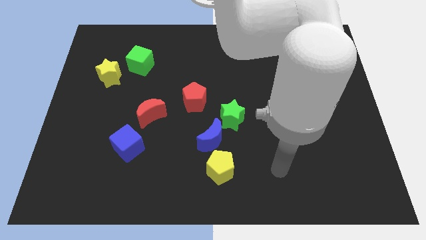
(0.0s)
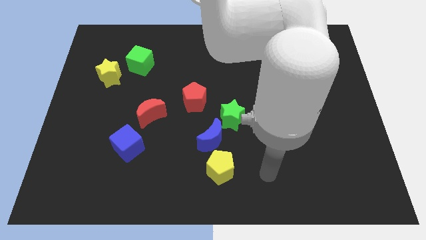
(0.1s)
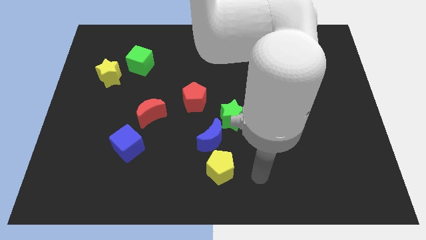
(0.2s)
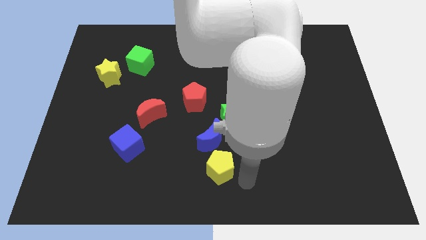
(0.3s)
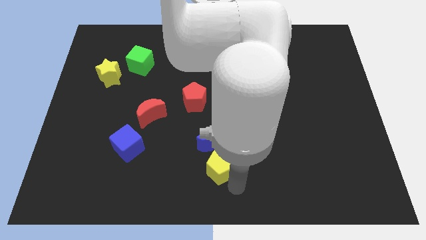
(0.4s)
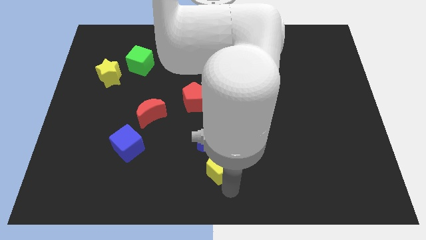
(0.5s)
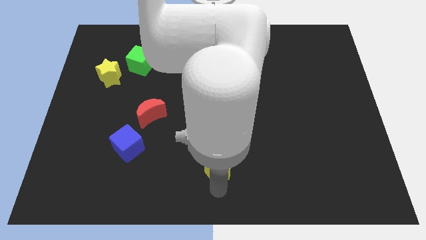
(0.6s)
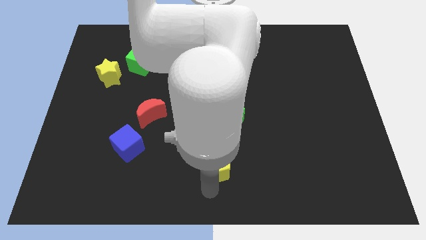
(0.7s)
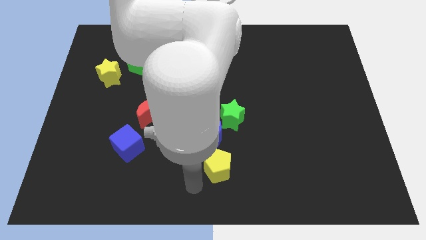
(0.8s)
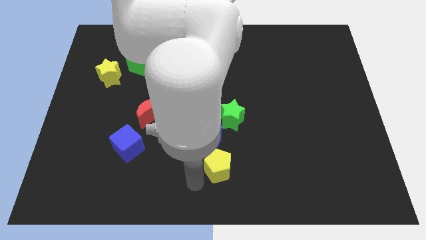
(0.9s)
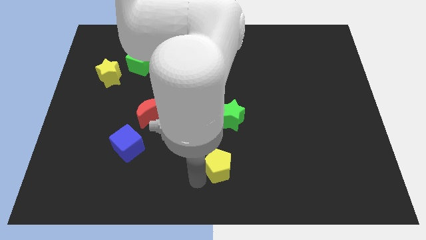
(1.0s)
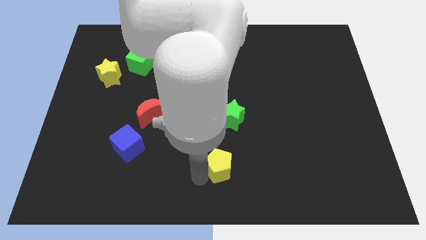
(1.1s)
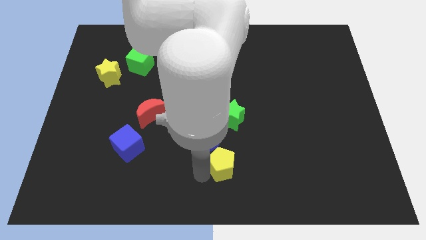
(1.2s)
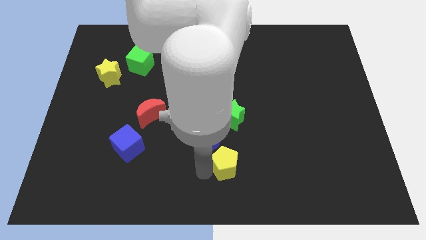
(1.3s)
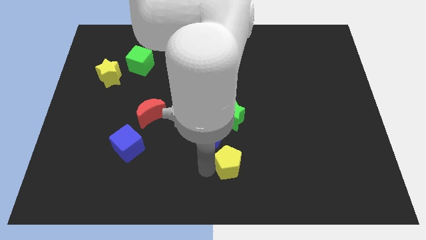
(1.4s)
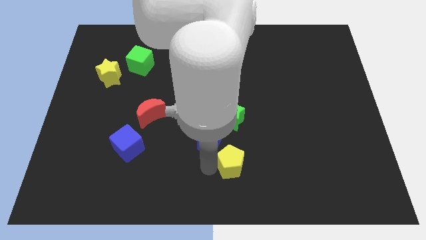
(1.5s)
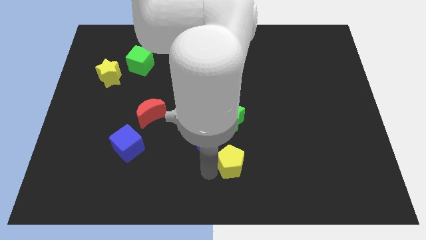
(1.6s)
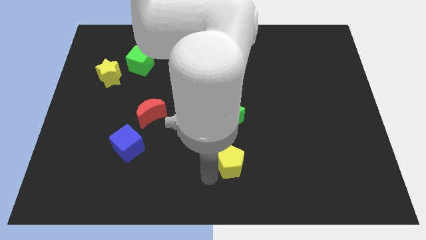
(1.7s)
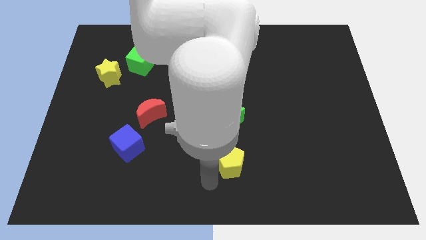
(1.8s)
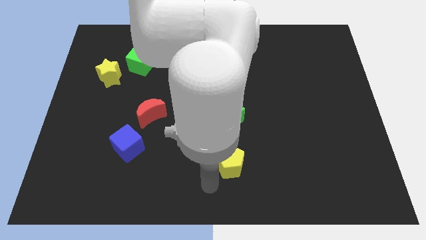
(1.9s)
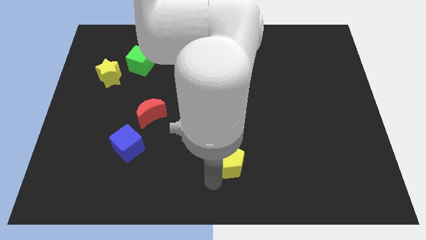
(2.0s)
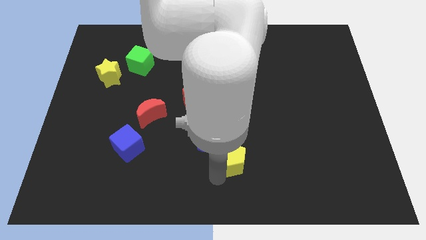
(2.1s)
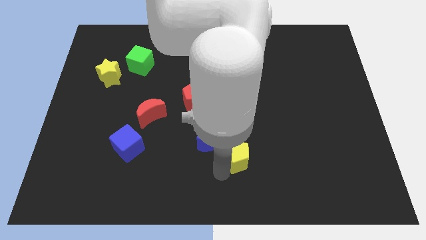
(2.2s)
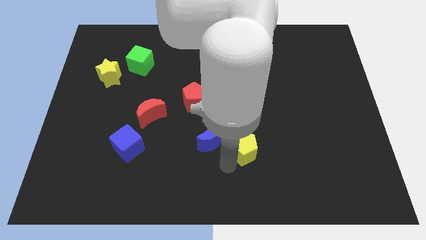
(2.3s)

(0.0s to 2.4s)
slightly move the yellow pentagon diagonally upwards and right

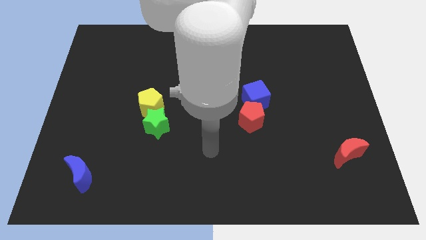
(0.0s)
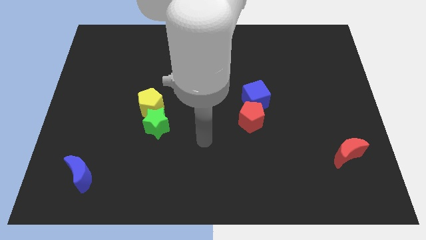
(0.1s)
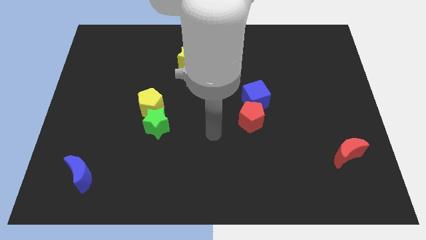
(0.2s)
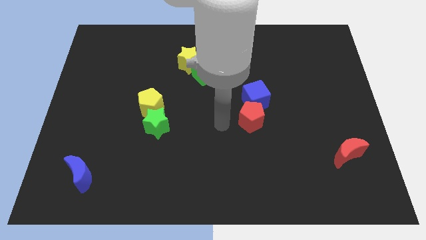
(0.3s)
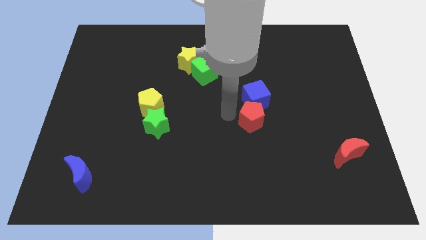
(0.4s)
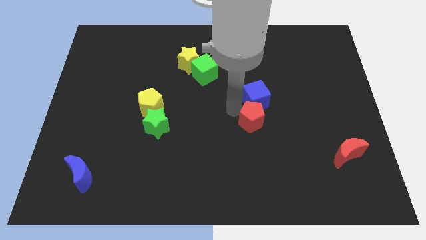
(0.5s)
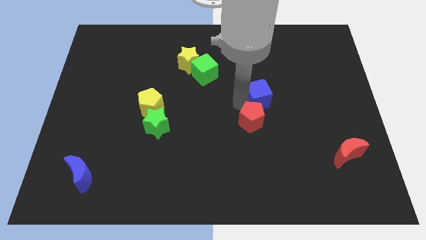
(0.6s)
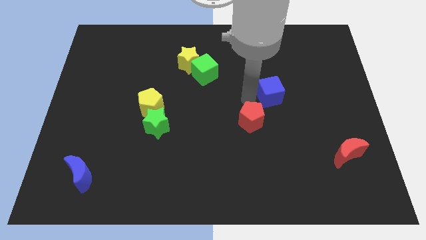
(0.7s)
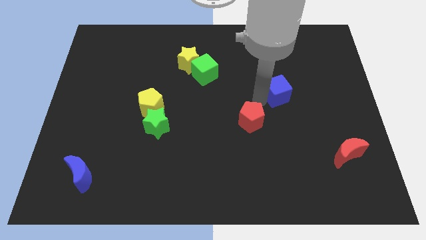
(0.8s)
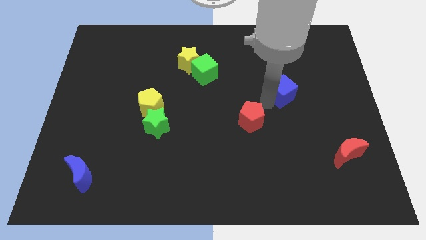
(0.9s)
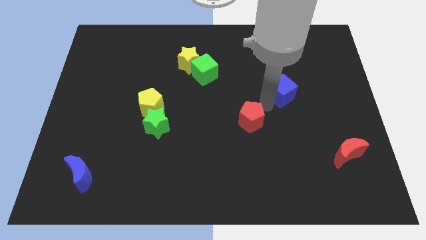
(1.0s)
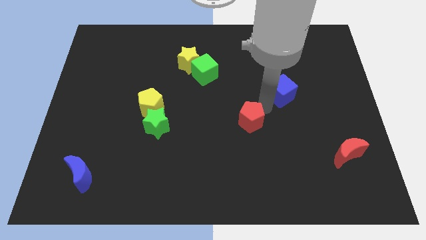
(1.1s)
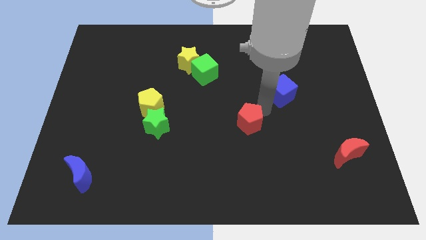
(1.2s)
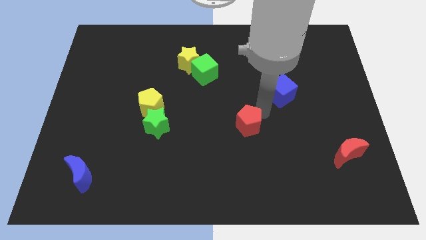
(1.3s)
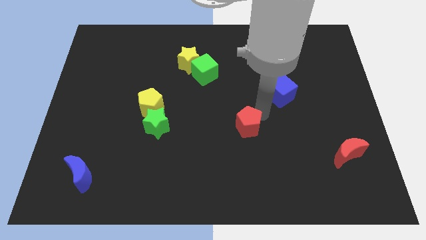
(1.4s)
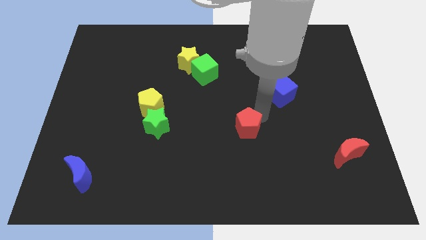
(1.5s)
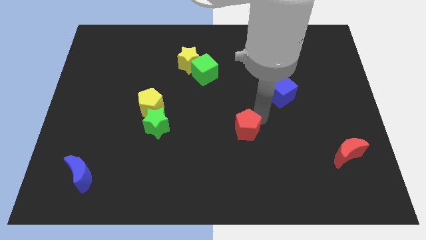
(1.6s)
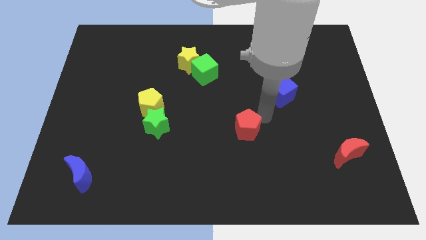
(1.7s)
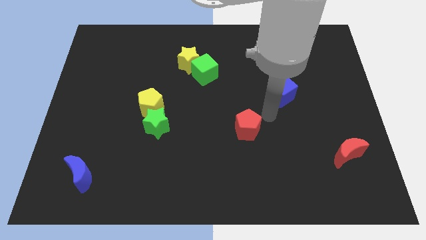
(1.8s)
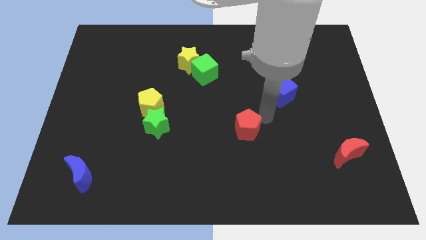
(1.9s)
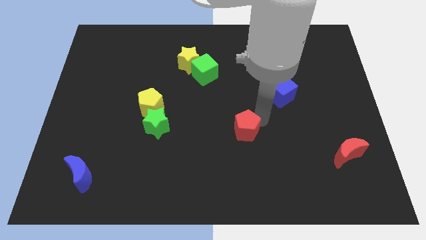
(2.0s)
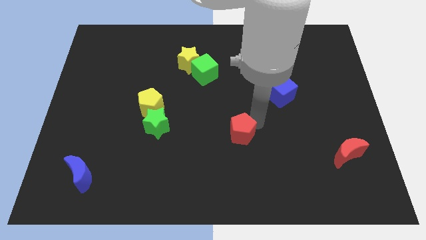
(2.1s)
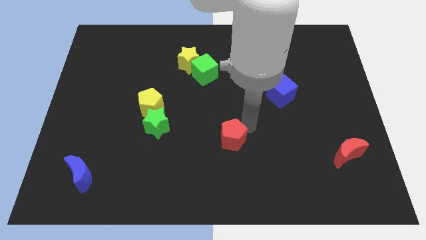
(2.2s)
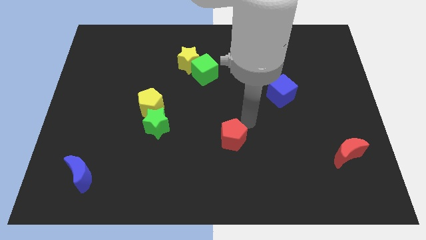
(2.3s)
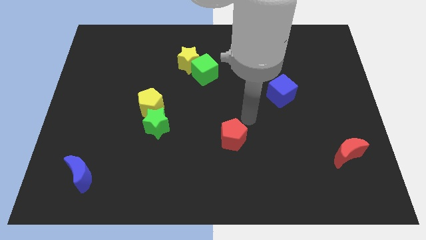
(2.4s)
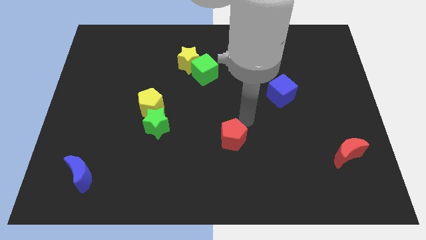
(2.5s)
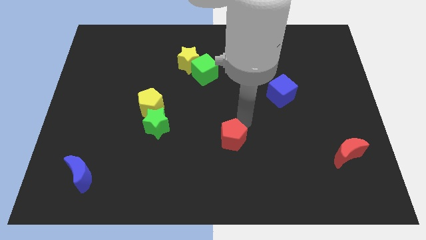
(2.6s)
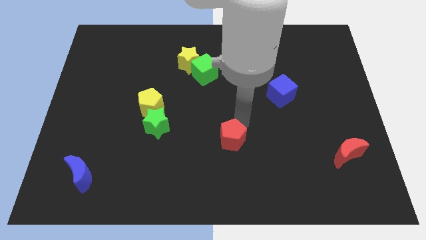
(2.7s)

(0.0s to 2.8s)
slide the red pentagon downwards and left somewhat

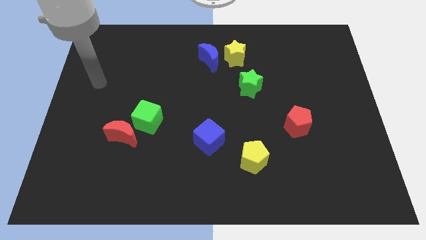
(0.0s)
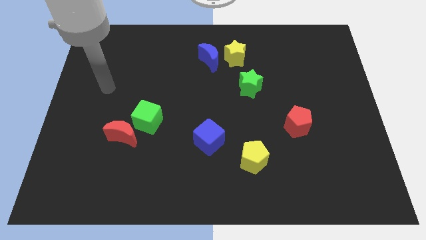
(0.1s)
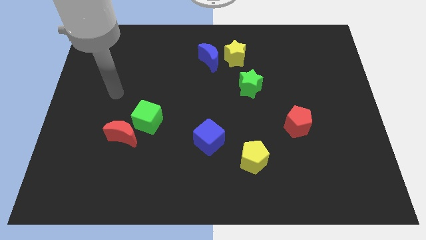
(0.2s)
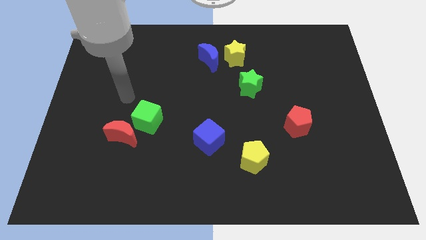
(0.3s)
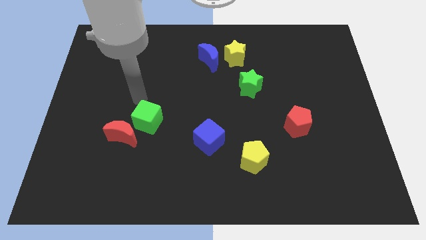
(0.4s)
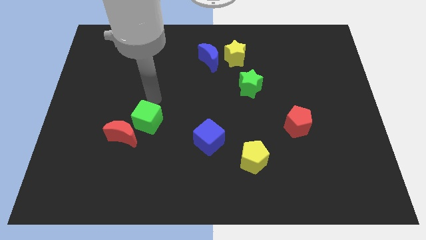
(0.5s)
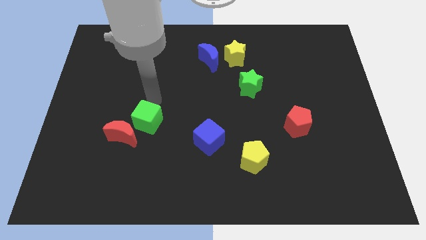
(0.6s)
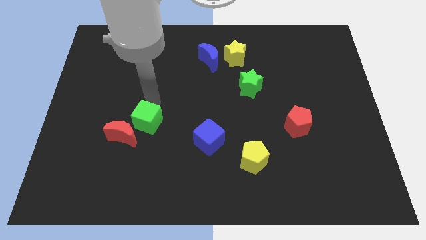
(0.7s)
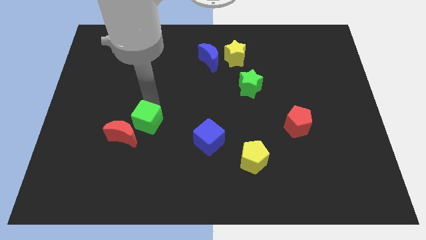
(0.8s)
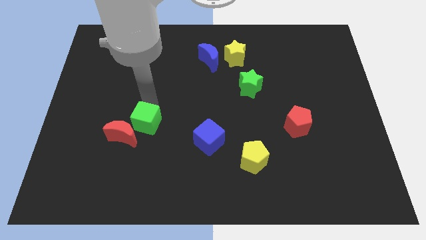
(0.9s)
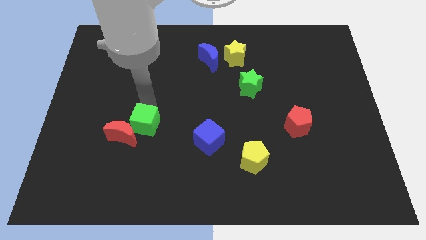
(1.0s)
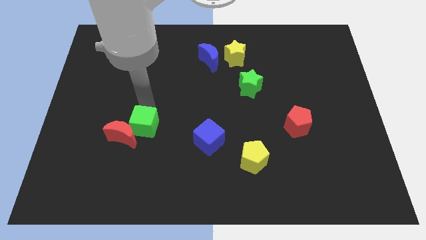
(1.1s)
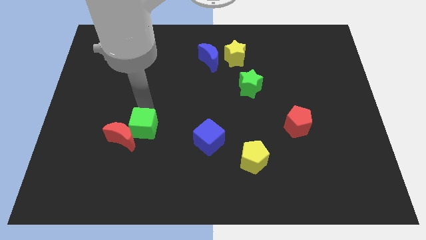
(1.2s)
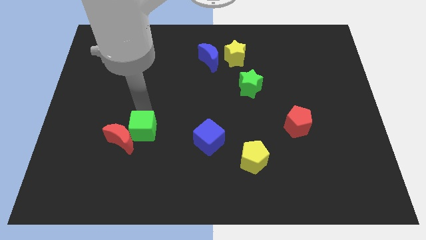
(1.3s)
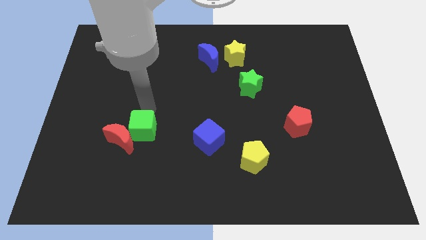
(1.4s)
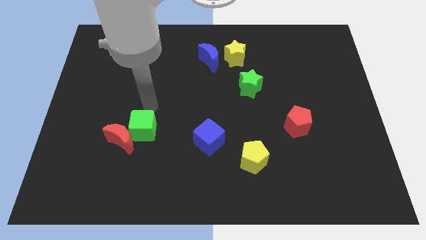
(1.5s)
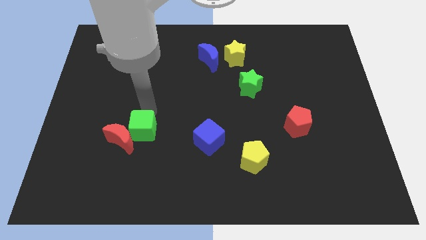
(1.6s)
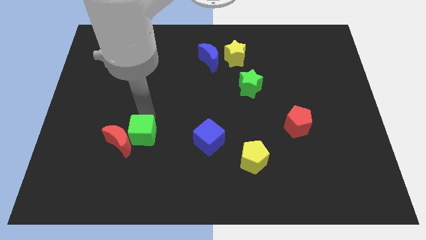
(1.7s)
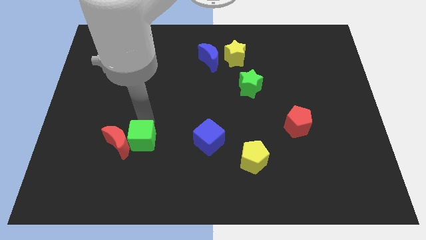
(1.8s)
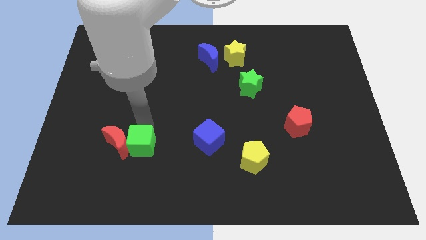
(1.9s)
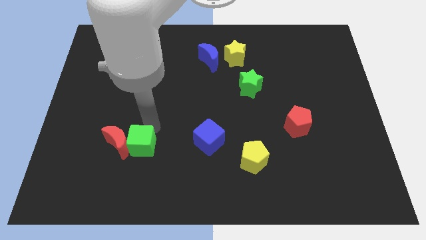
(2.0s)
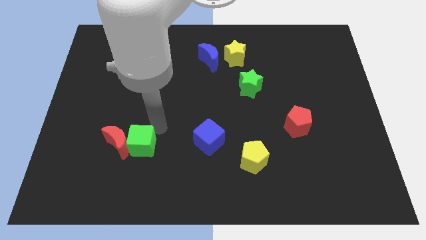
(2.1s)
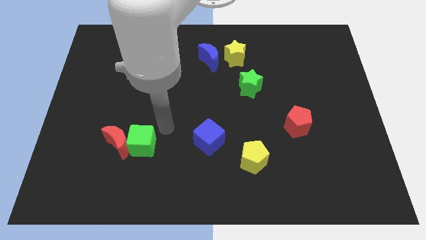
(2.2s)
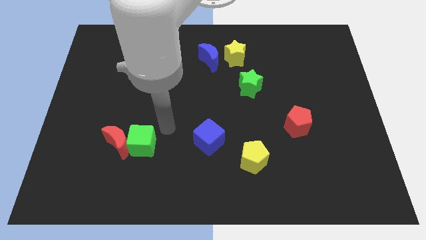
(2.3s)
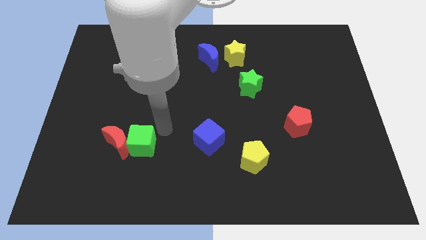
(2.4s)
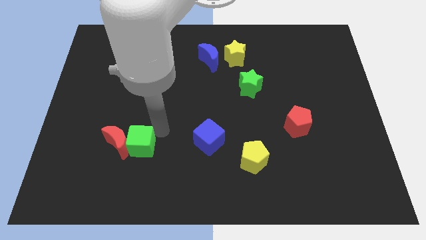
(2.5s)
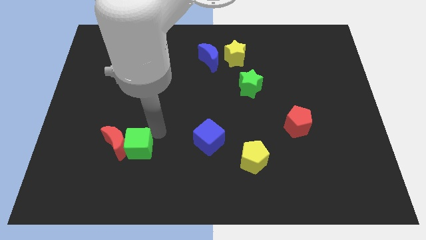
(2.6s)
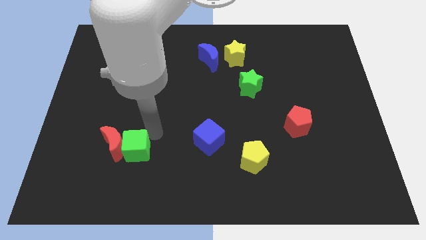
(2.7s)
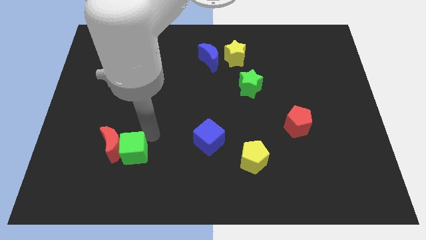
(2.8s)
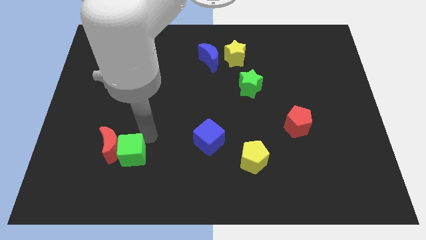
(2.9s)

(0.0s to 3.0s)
slightly move the green cube downwards and left diagonally

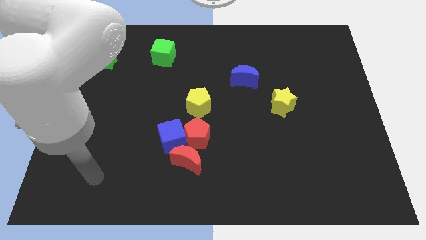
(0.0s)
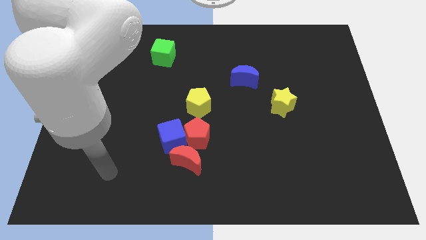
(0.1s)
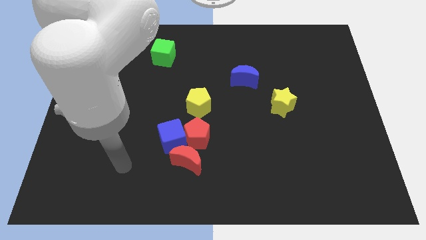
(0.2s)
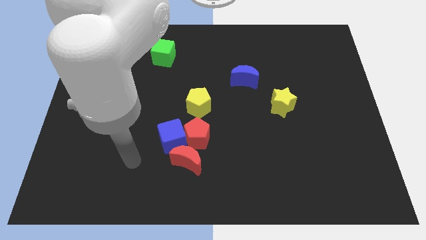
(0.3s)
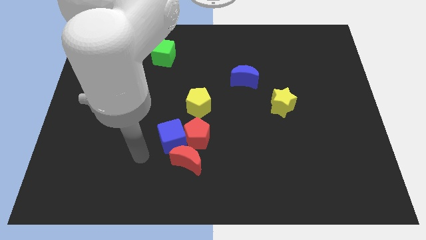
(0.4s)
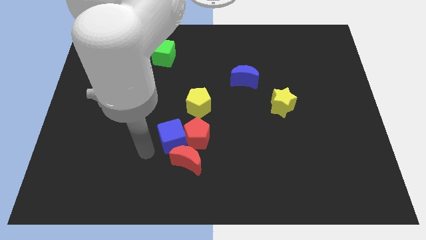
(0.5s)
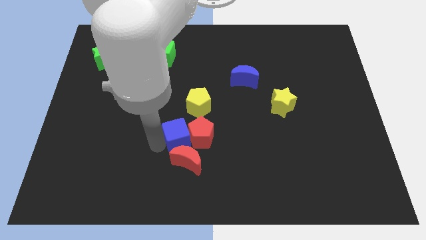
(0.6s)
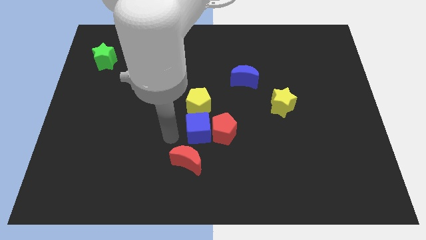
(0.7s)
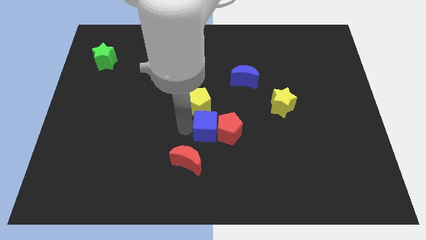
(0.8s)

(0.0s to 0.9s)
move the red pentagon right slightly
